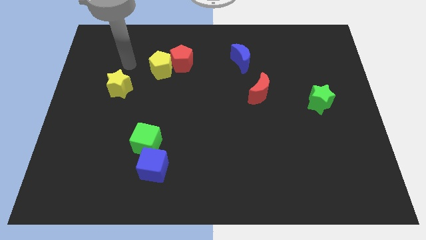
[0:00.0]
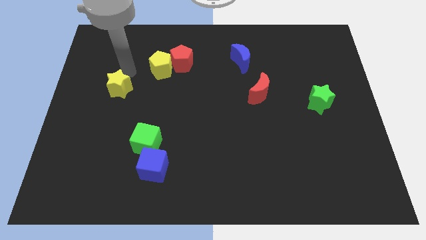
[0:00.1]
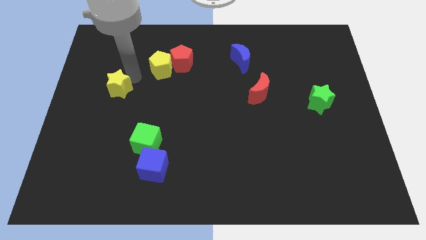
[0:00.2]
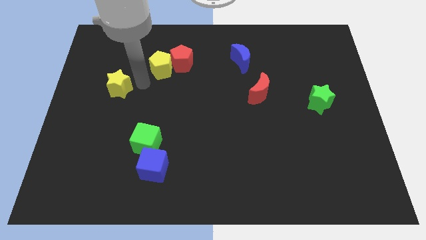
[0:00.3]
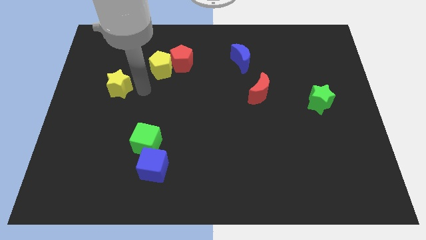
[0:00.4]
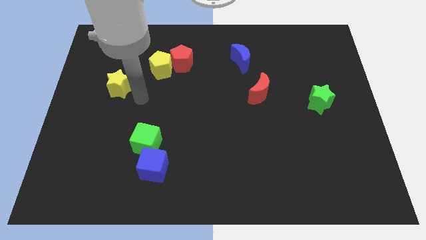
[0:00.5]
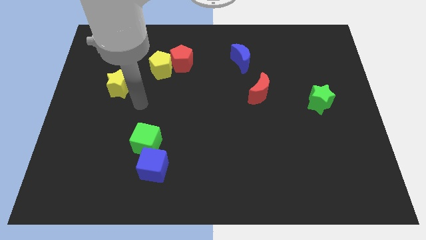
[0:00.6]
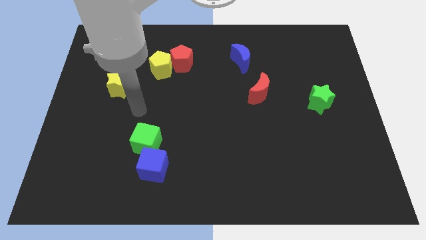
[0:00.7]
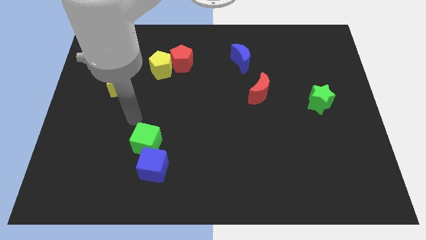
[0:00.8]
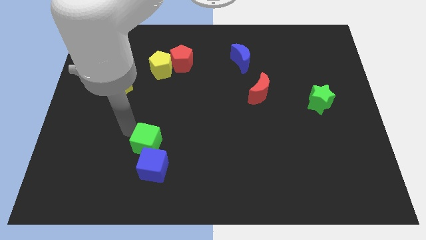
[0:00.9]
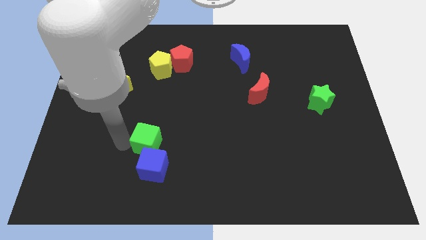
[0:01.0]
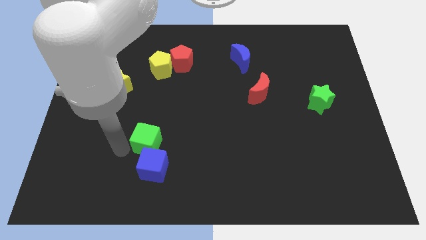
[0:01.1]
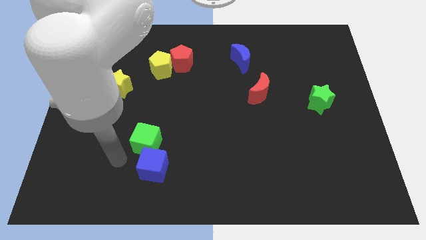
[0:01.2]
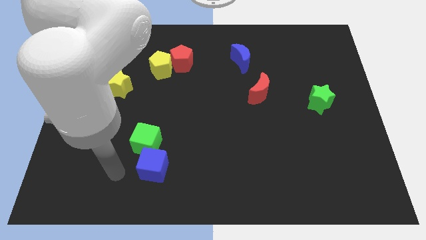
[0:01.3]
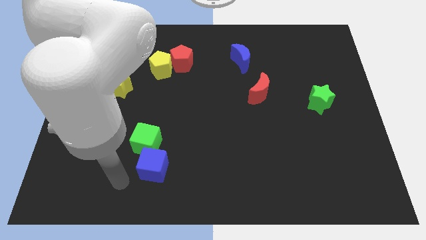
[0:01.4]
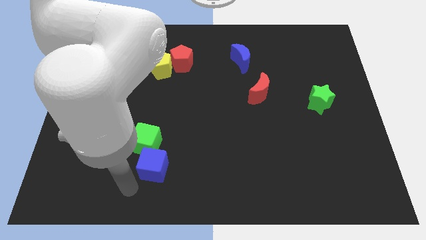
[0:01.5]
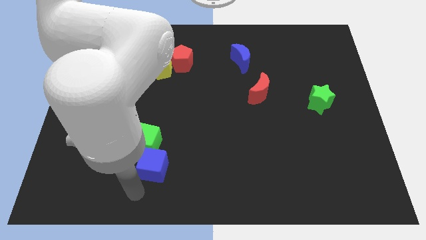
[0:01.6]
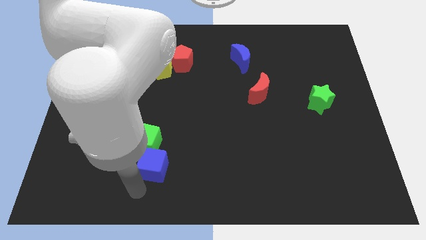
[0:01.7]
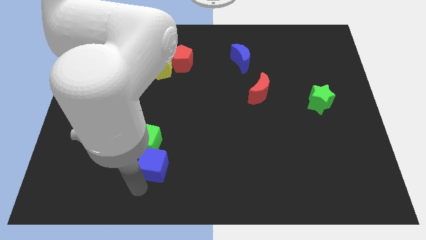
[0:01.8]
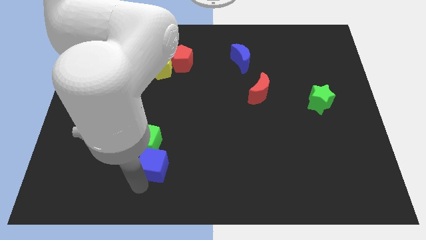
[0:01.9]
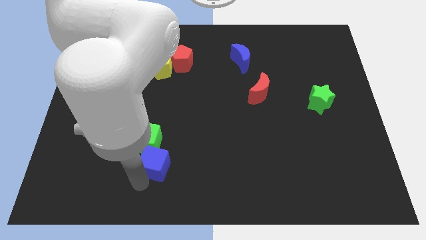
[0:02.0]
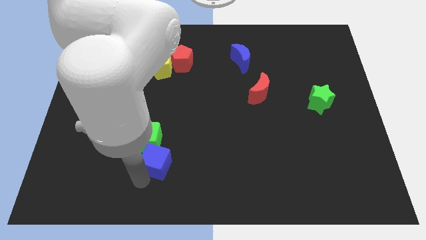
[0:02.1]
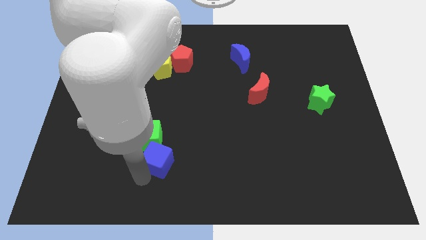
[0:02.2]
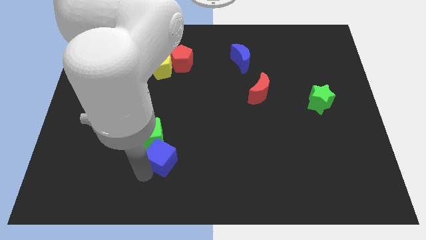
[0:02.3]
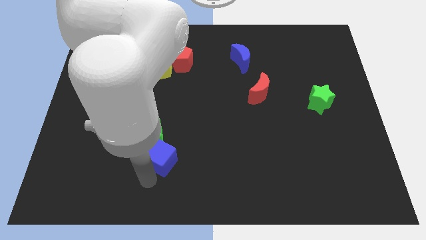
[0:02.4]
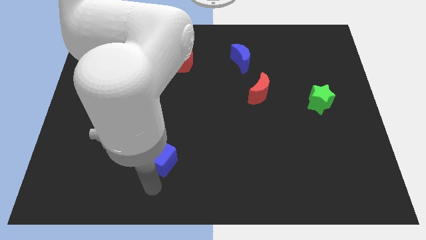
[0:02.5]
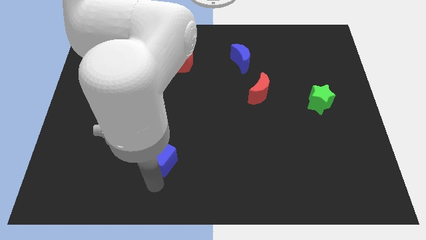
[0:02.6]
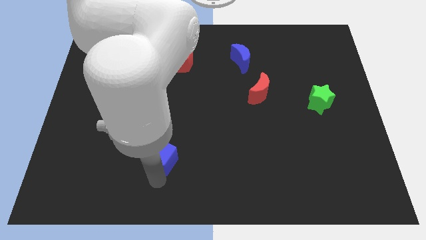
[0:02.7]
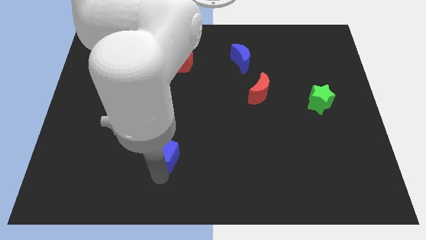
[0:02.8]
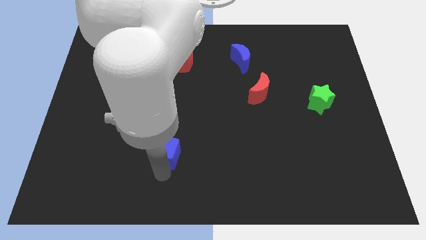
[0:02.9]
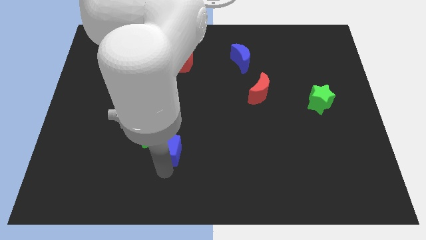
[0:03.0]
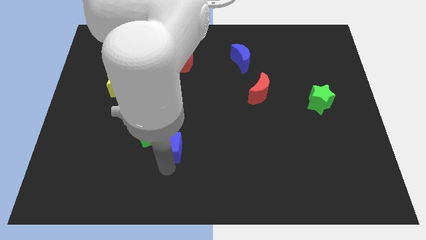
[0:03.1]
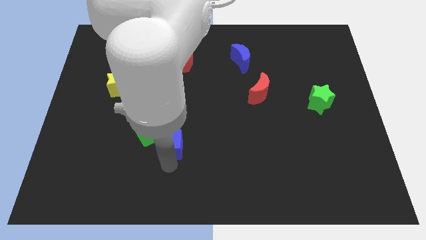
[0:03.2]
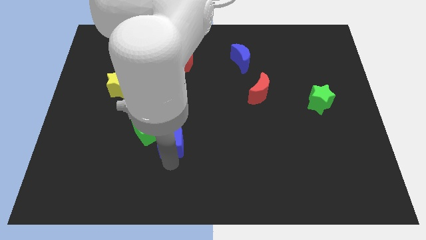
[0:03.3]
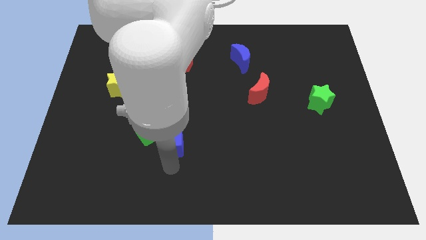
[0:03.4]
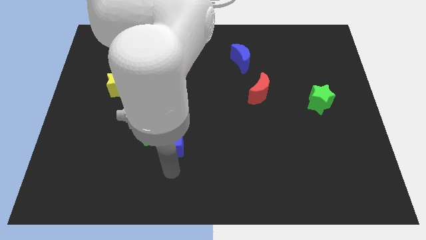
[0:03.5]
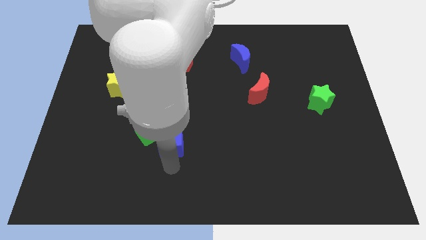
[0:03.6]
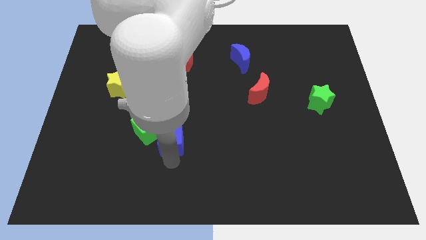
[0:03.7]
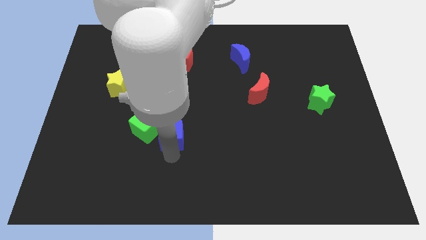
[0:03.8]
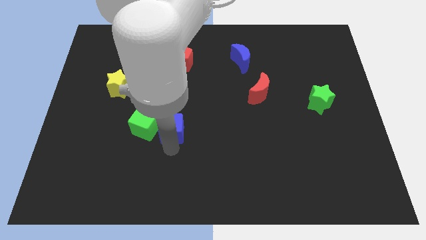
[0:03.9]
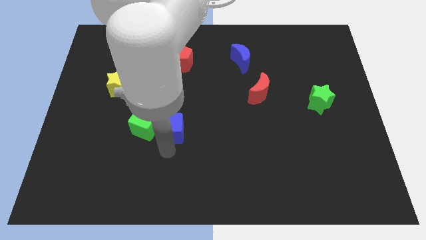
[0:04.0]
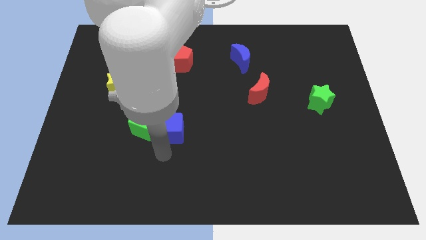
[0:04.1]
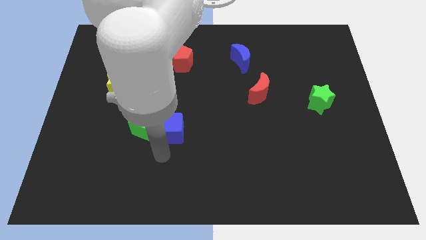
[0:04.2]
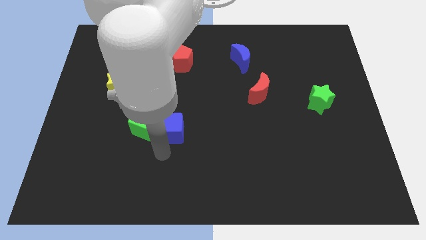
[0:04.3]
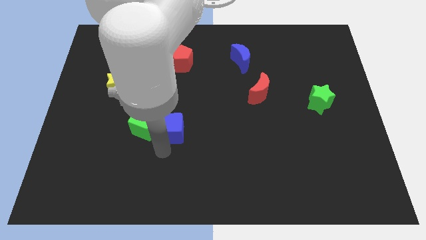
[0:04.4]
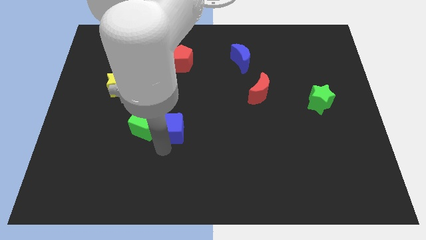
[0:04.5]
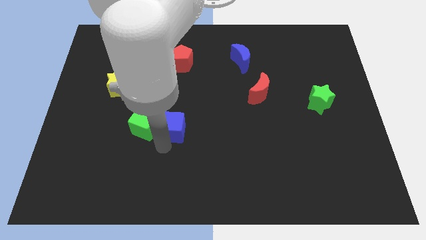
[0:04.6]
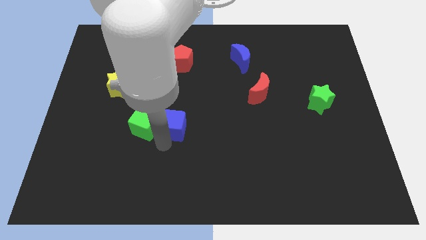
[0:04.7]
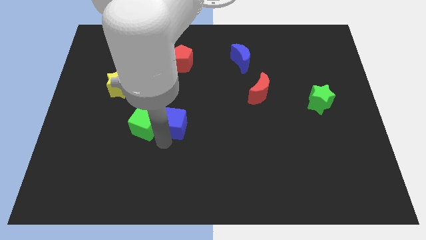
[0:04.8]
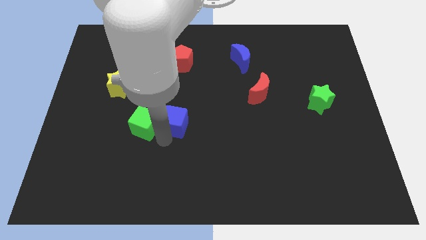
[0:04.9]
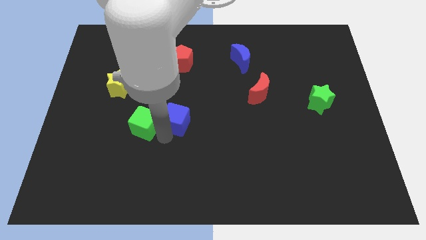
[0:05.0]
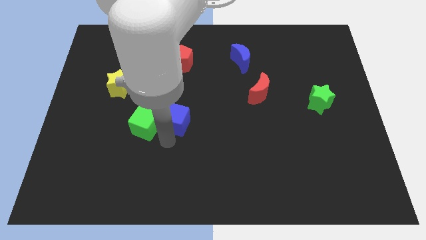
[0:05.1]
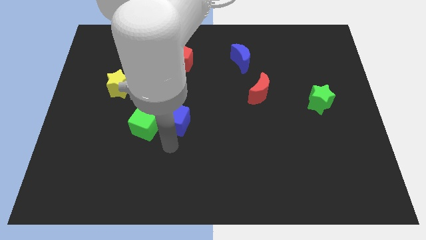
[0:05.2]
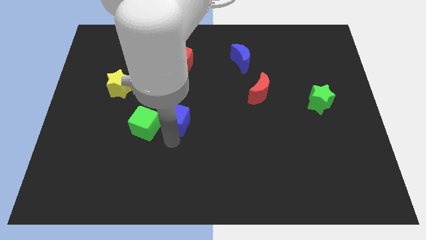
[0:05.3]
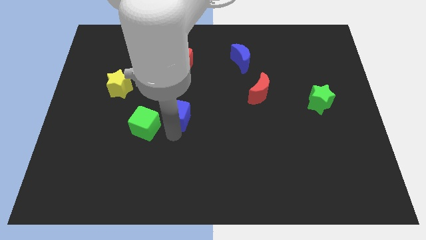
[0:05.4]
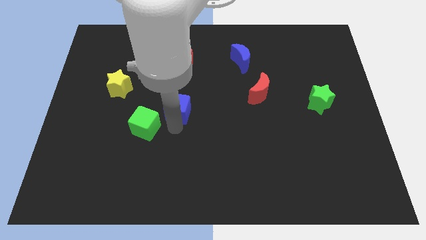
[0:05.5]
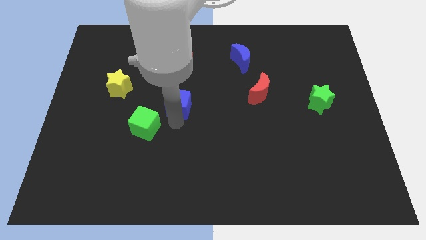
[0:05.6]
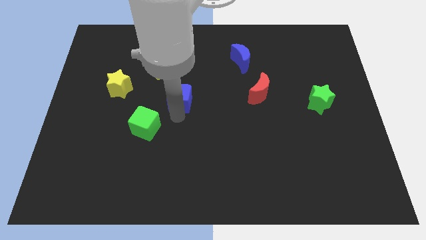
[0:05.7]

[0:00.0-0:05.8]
put the blue cube to the bottom right side of the yellow pentagon
